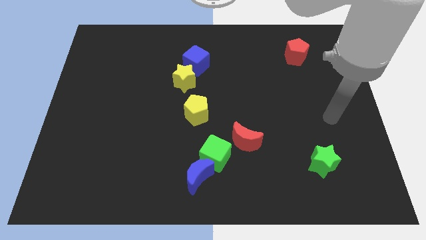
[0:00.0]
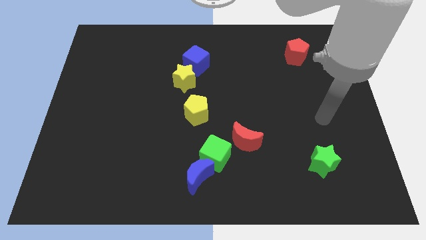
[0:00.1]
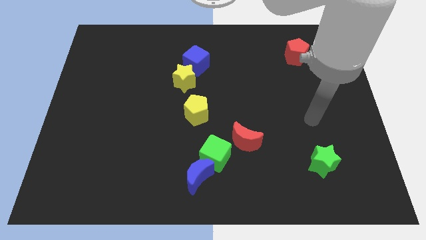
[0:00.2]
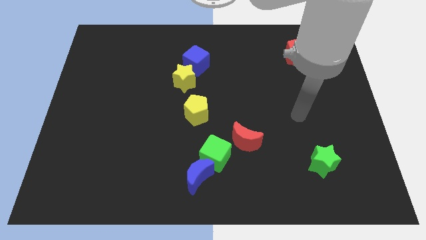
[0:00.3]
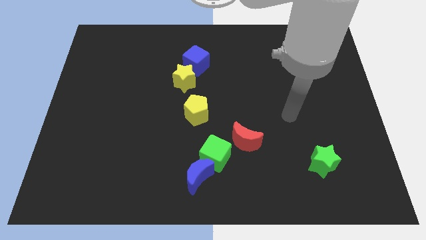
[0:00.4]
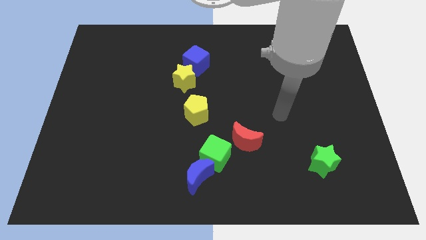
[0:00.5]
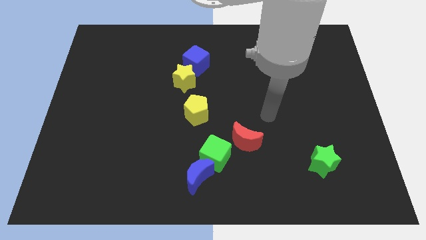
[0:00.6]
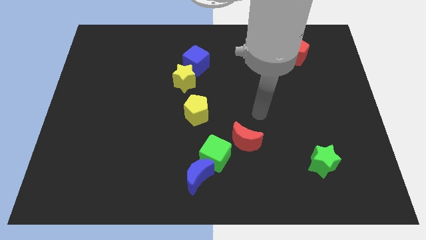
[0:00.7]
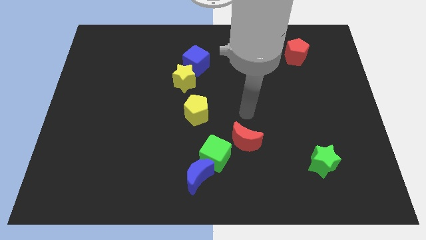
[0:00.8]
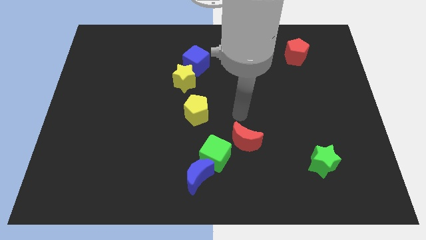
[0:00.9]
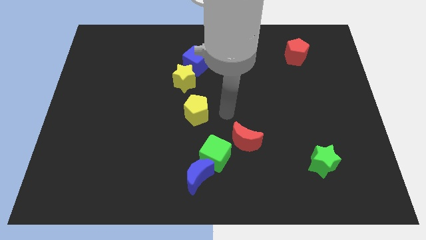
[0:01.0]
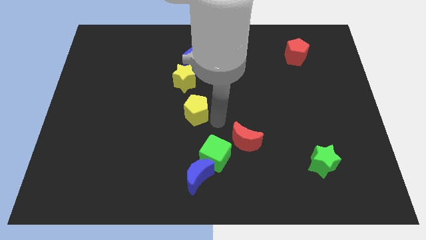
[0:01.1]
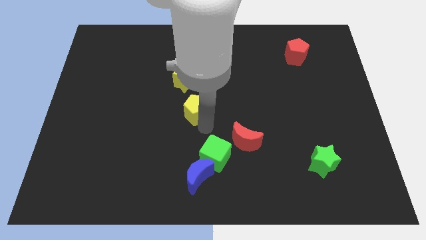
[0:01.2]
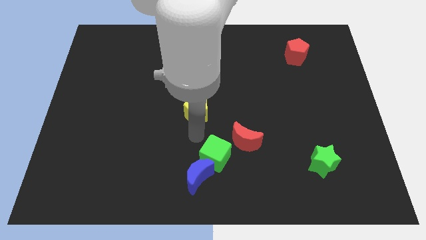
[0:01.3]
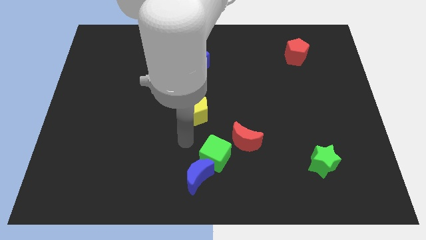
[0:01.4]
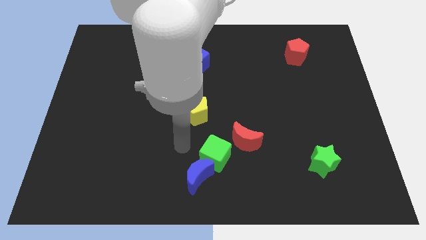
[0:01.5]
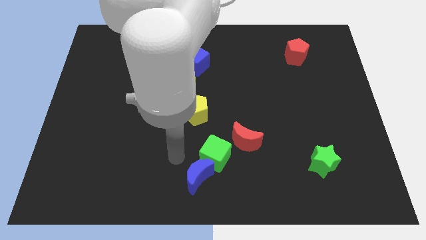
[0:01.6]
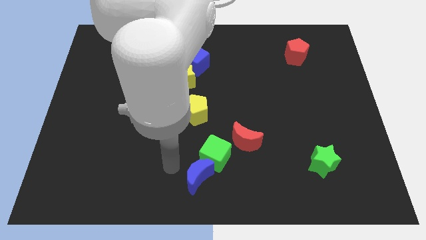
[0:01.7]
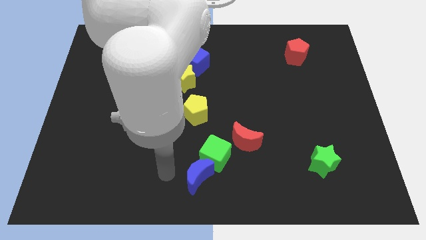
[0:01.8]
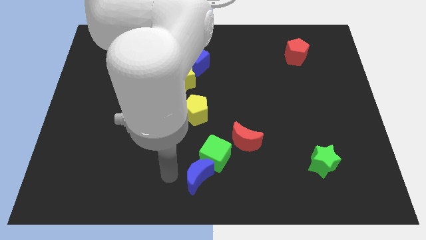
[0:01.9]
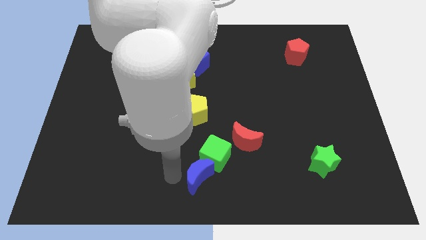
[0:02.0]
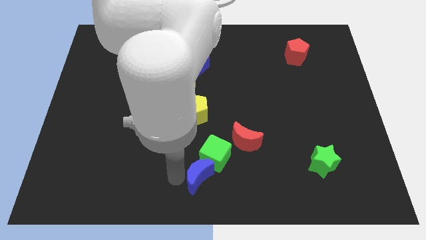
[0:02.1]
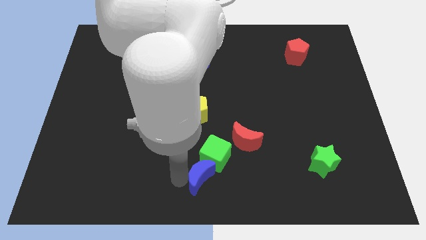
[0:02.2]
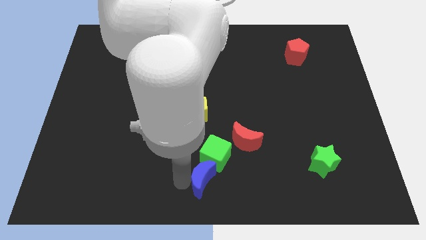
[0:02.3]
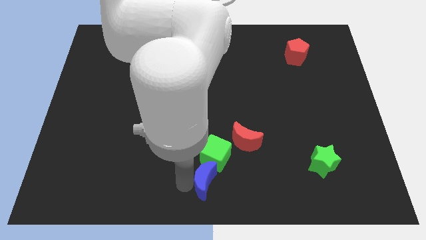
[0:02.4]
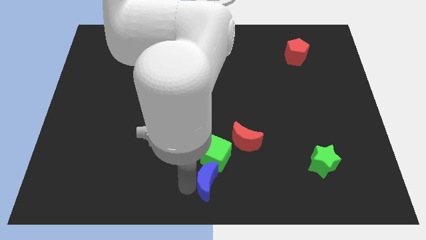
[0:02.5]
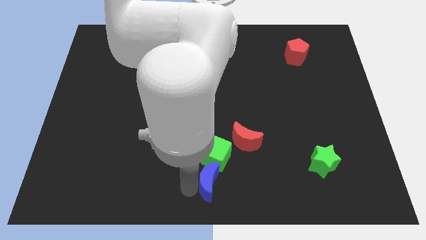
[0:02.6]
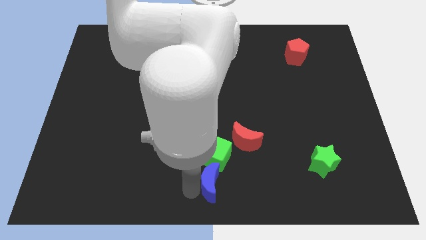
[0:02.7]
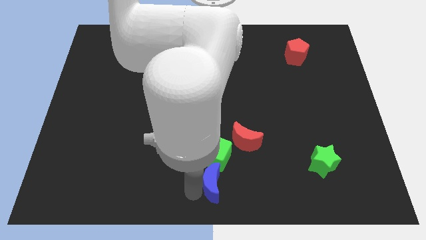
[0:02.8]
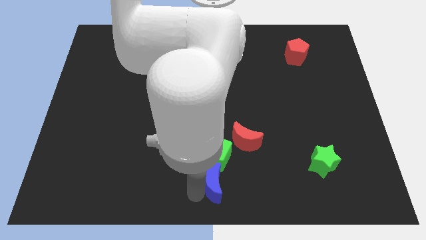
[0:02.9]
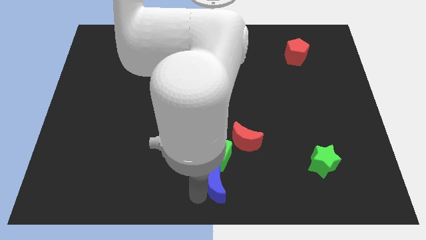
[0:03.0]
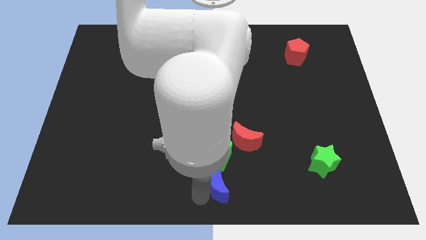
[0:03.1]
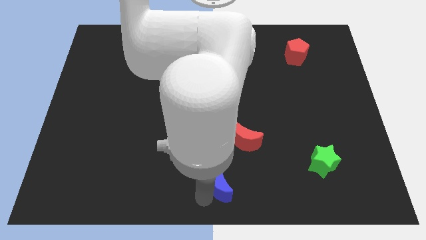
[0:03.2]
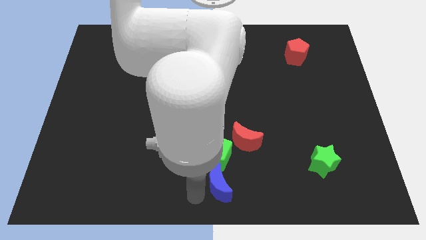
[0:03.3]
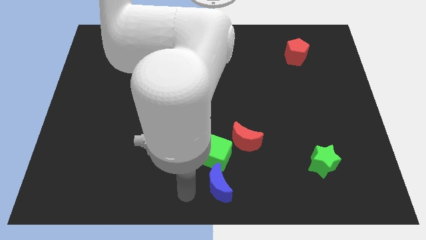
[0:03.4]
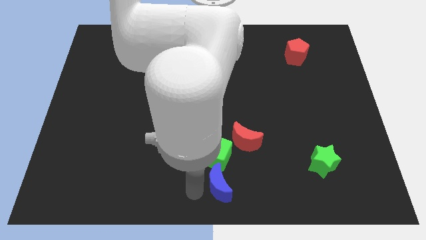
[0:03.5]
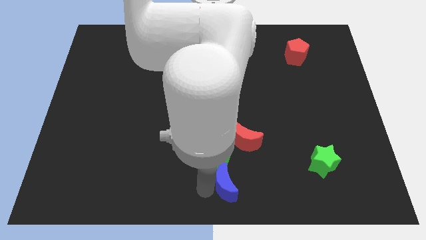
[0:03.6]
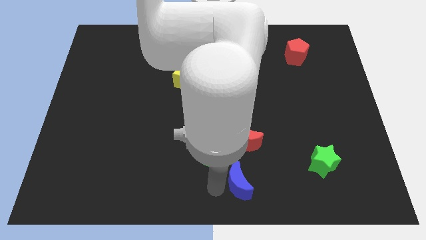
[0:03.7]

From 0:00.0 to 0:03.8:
slide the blue moon right a little bit

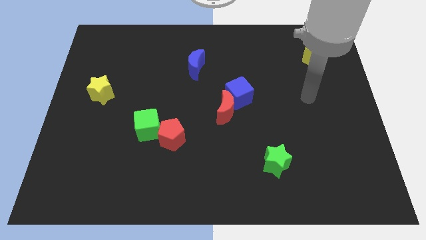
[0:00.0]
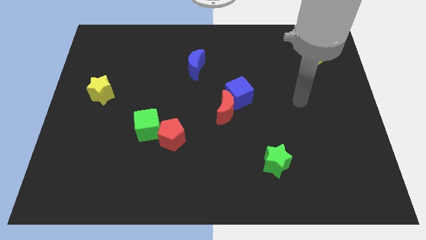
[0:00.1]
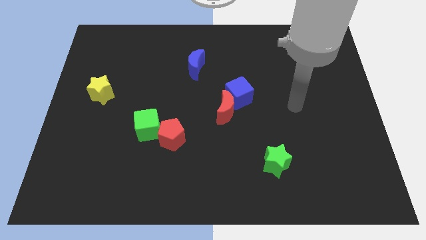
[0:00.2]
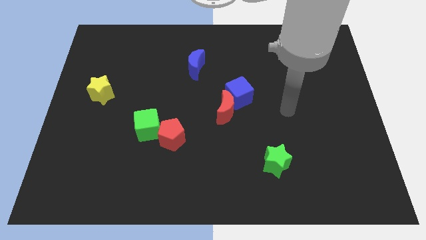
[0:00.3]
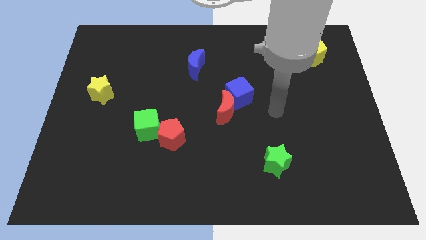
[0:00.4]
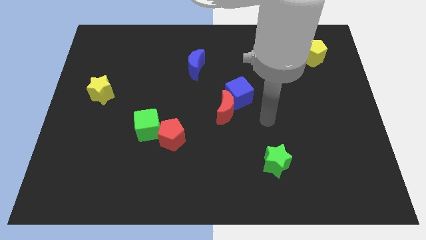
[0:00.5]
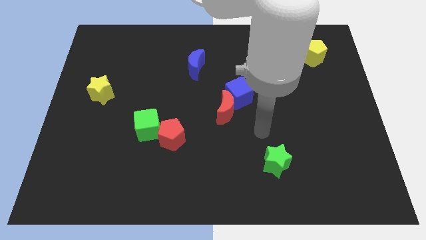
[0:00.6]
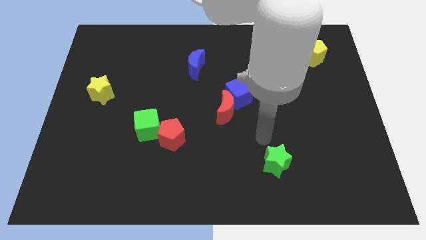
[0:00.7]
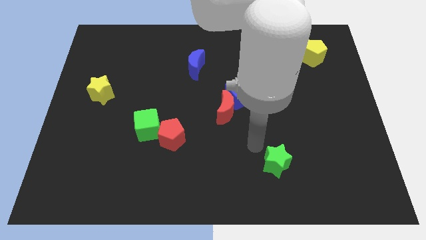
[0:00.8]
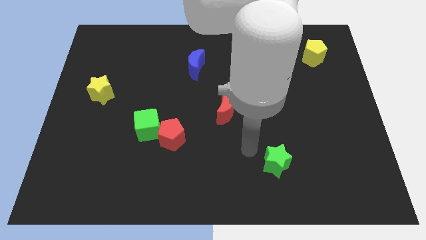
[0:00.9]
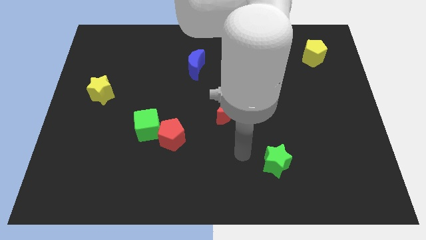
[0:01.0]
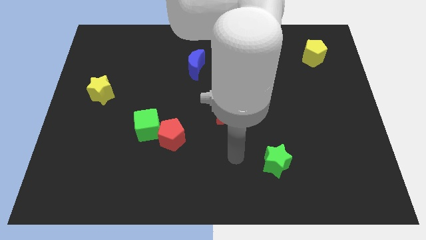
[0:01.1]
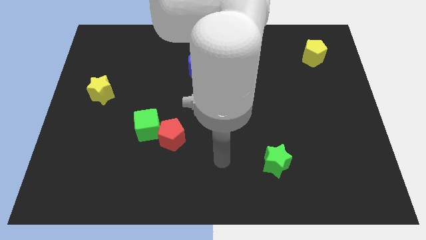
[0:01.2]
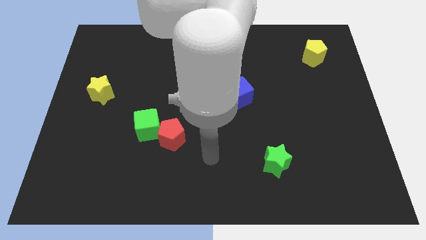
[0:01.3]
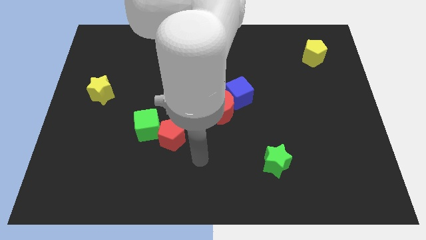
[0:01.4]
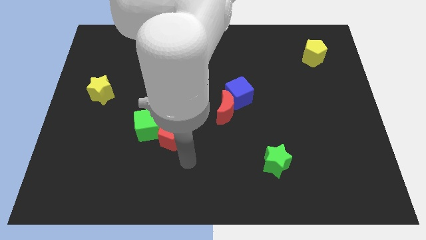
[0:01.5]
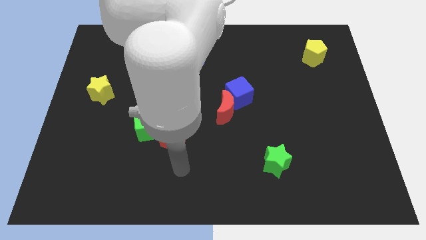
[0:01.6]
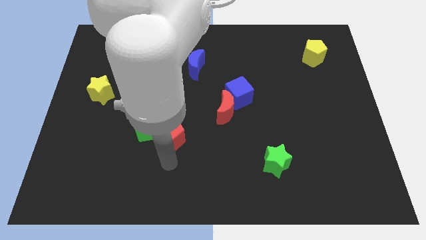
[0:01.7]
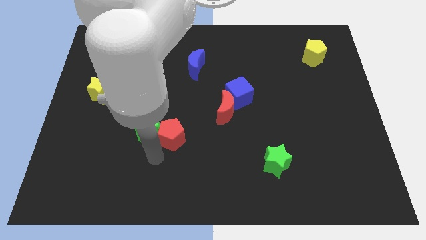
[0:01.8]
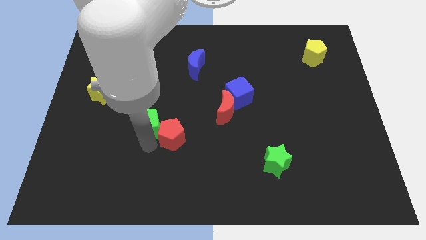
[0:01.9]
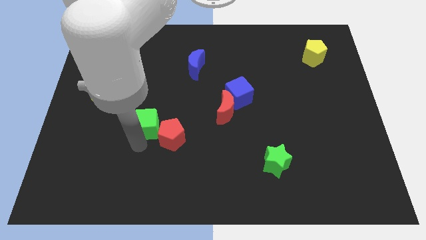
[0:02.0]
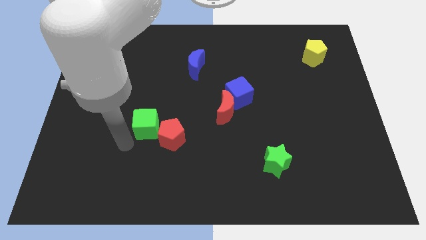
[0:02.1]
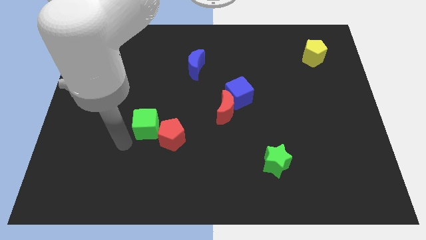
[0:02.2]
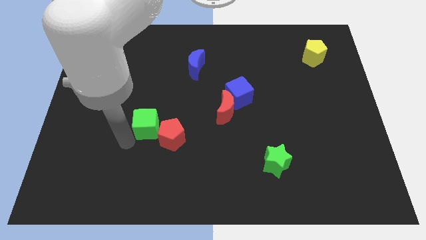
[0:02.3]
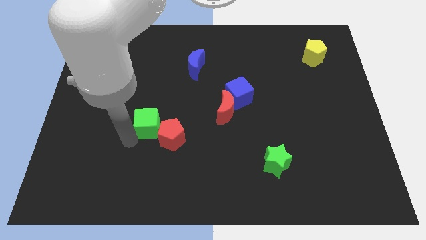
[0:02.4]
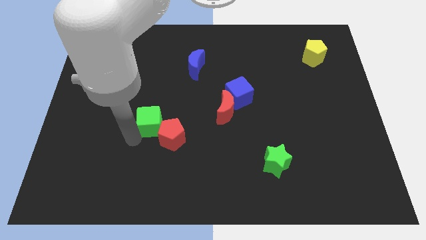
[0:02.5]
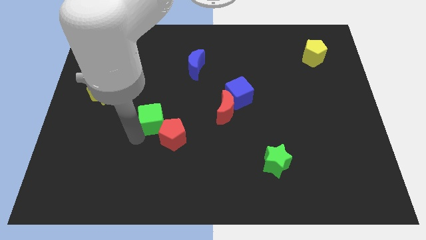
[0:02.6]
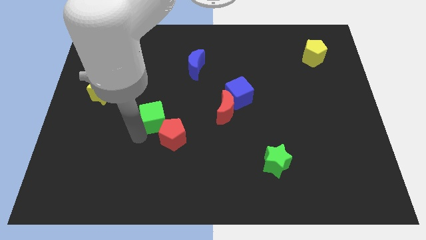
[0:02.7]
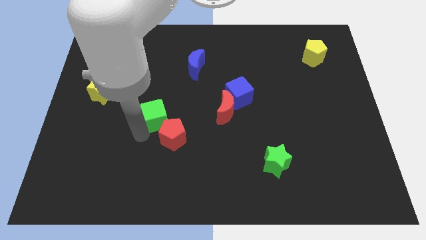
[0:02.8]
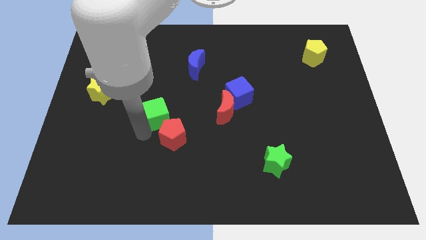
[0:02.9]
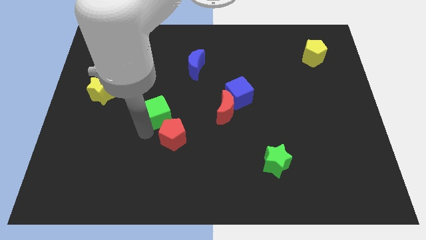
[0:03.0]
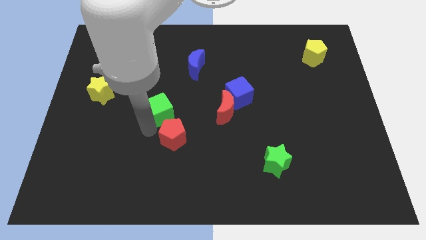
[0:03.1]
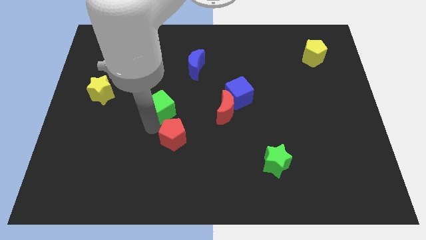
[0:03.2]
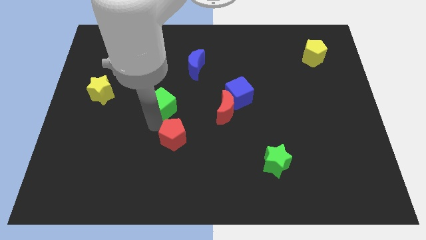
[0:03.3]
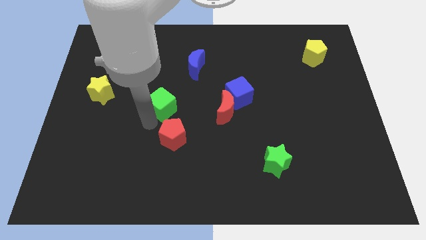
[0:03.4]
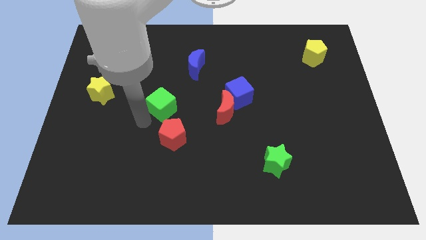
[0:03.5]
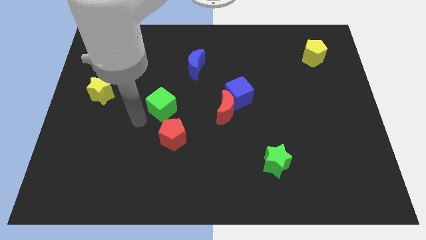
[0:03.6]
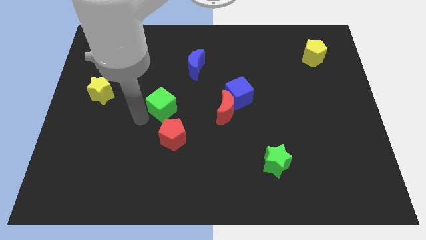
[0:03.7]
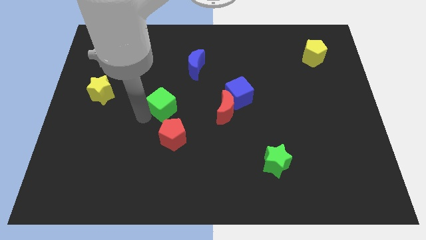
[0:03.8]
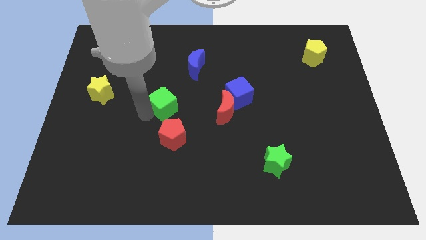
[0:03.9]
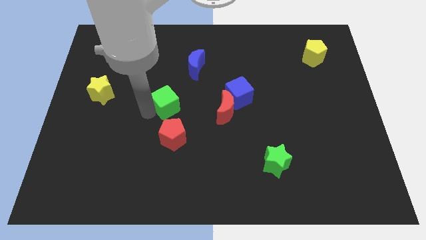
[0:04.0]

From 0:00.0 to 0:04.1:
slightly slide the green cube up and right diagonally
